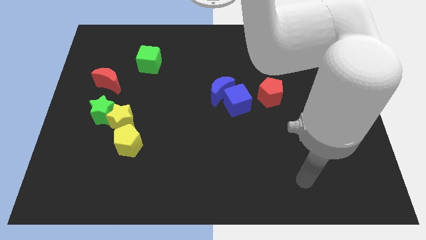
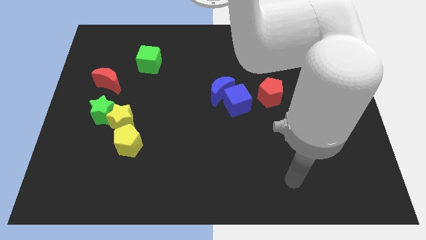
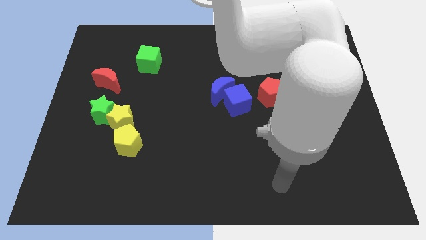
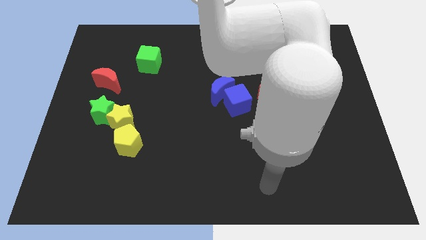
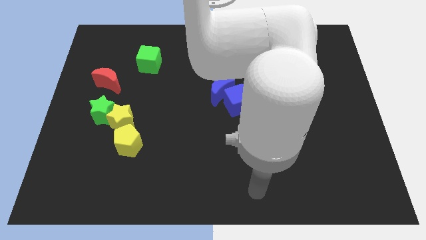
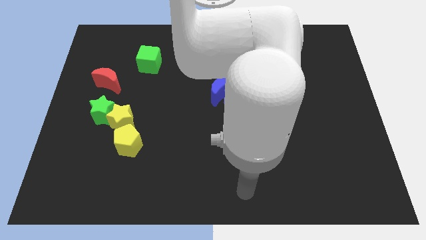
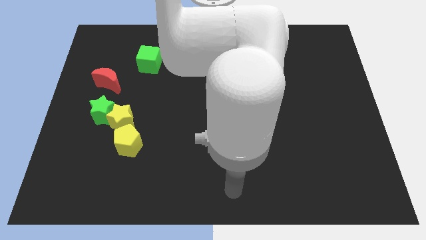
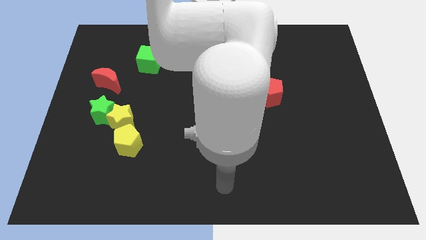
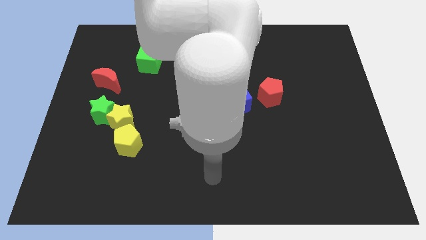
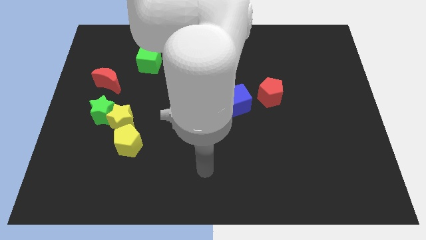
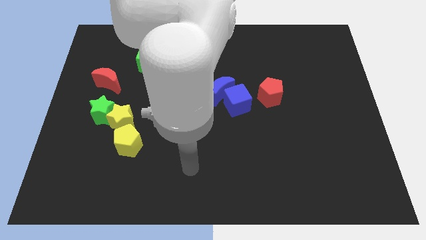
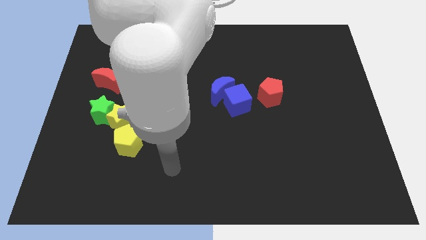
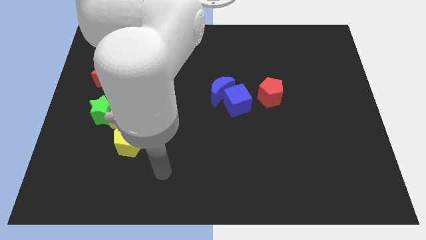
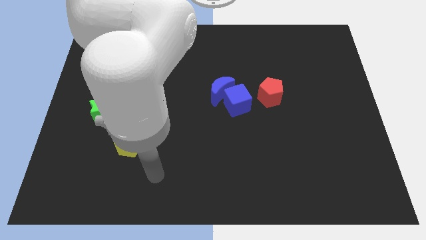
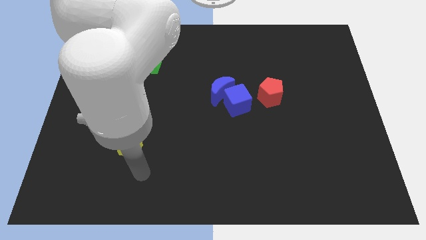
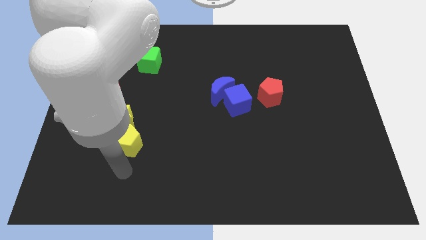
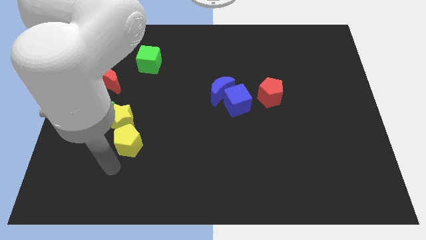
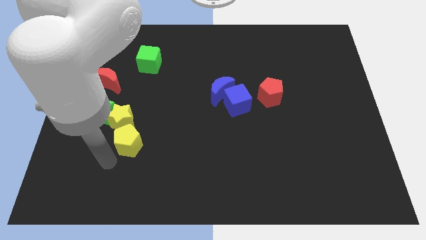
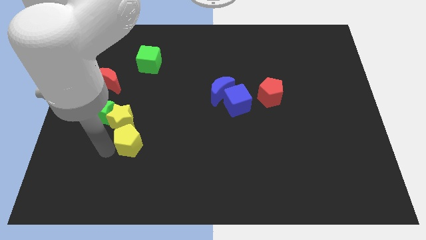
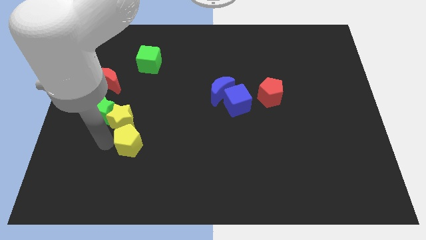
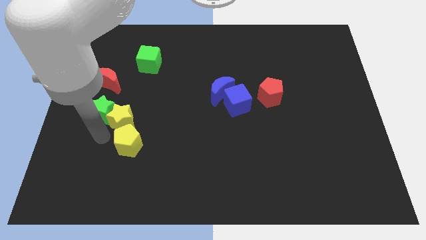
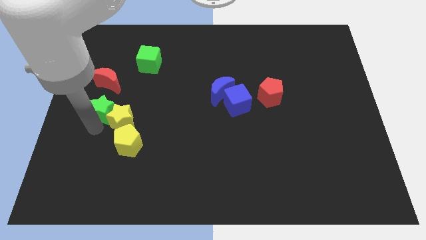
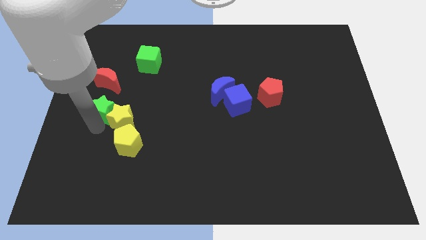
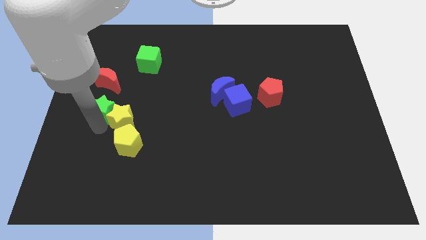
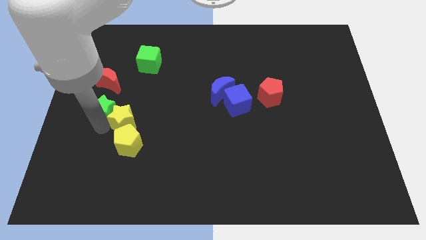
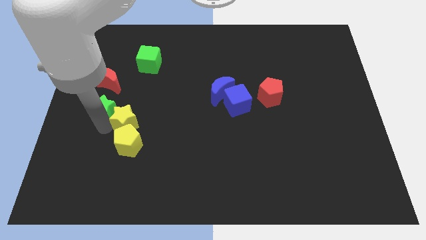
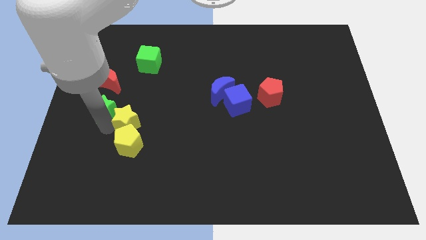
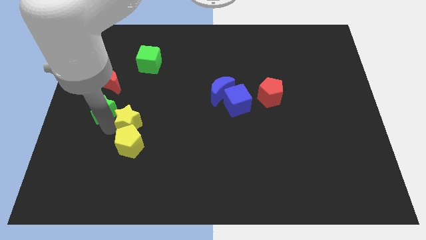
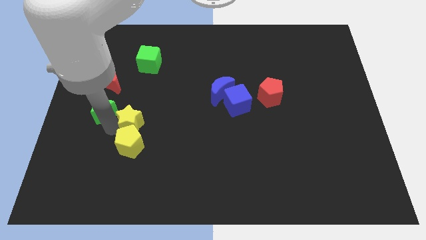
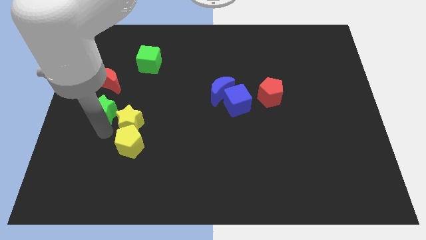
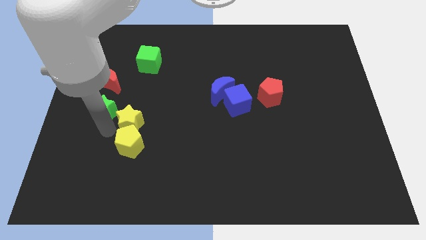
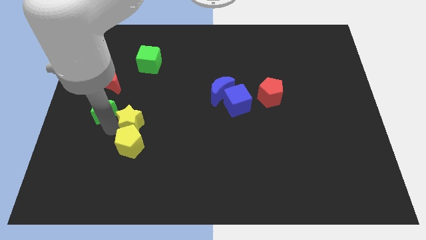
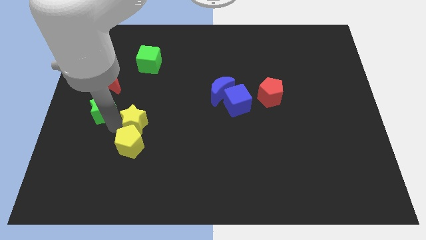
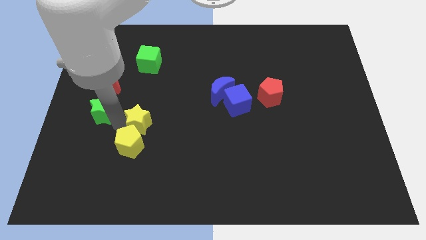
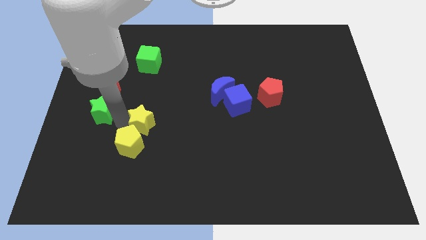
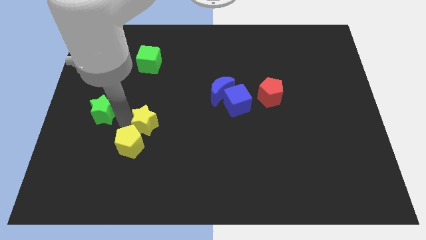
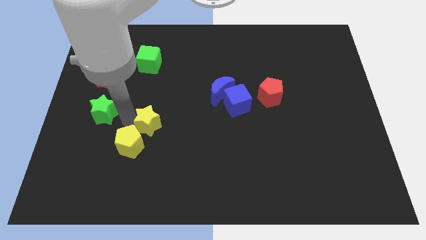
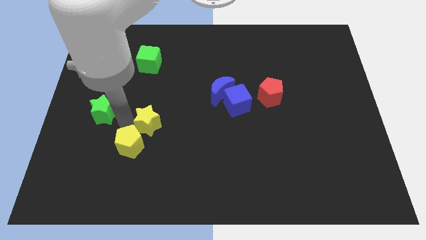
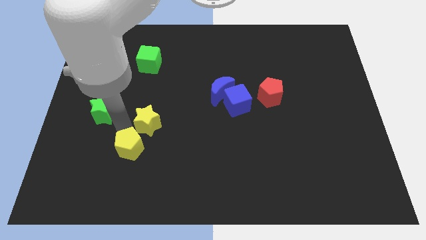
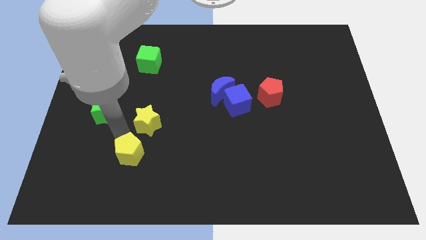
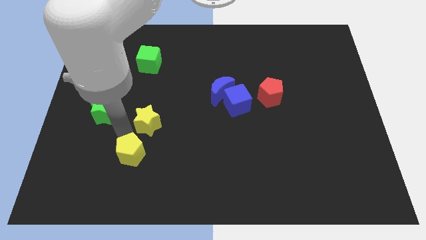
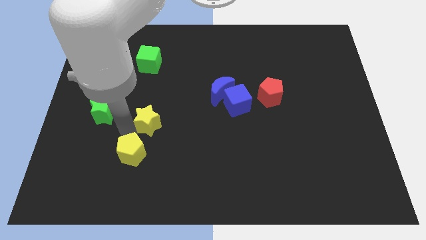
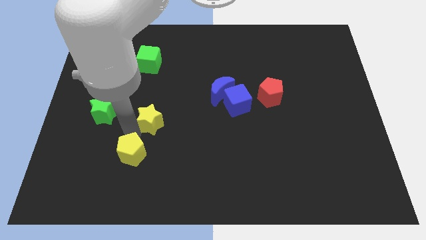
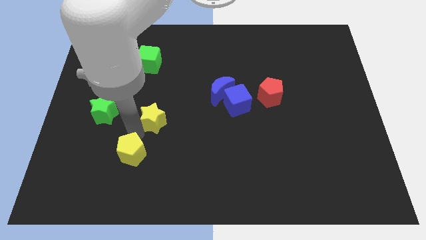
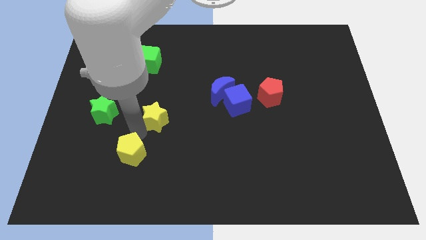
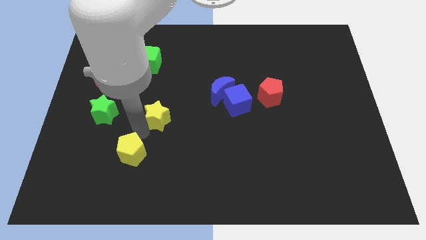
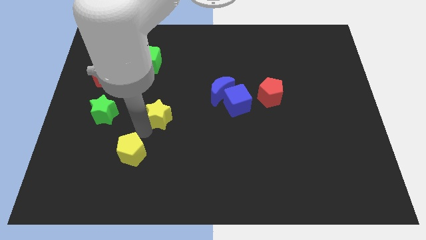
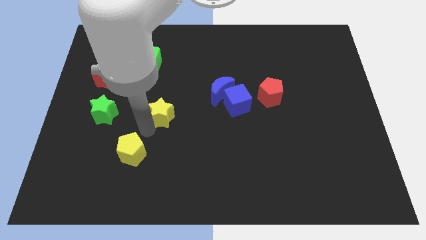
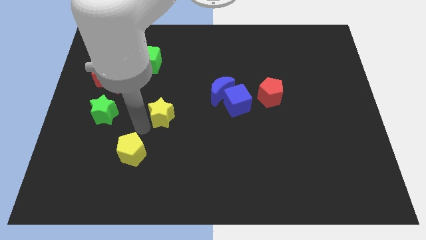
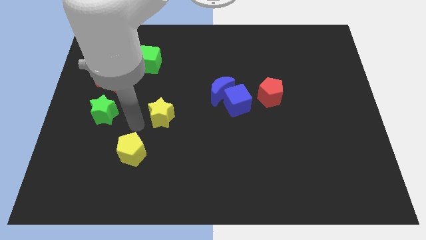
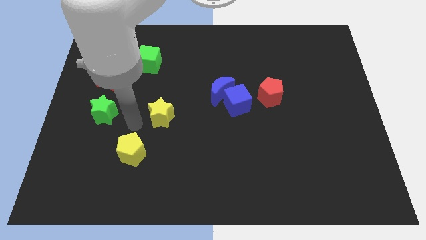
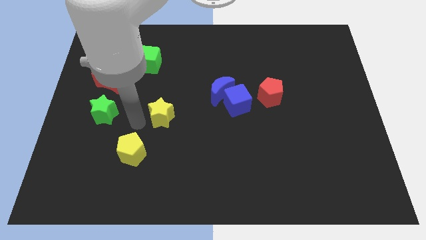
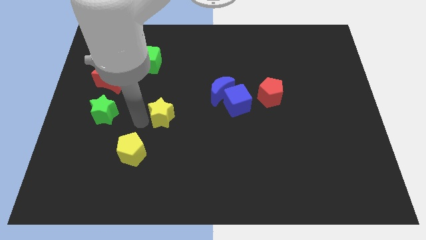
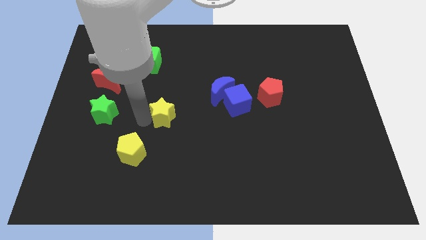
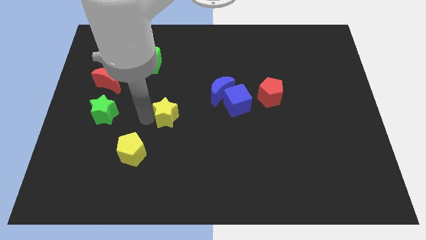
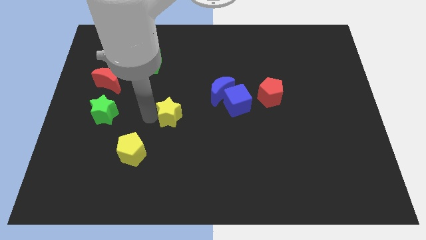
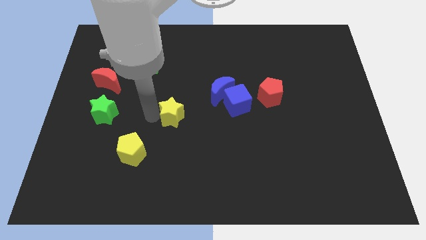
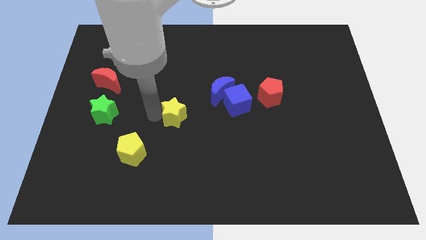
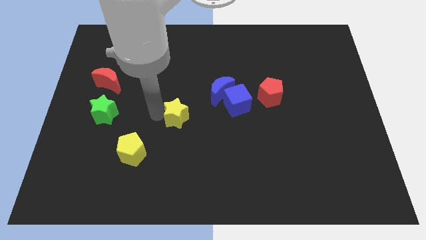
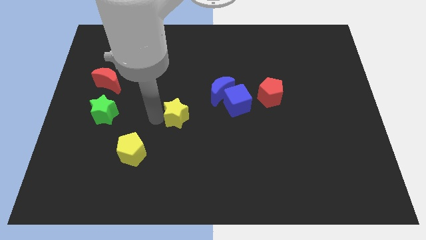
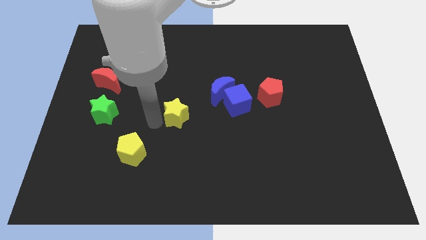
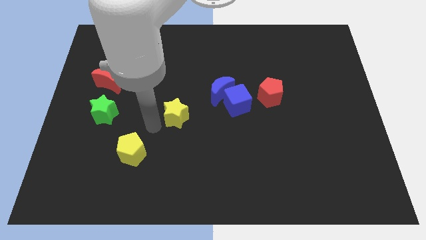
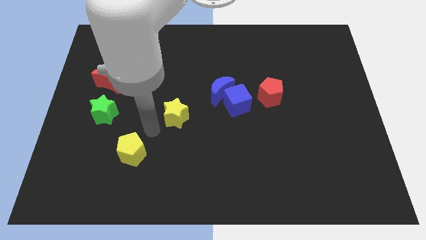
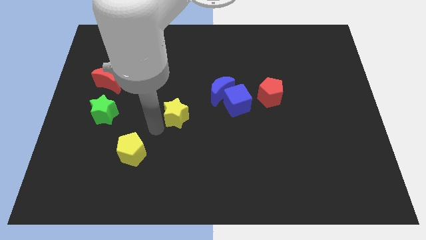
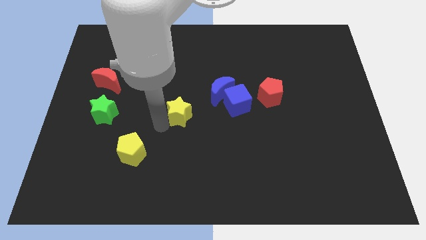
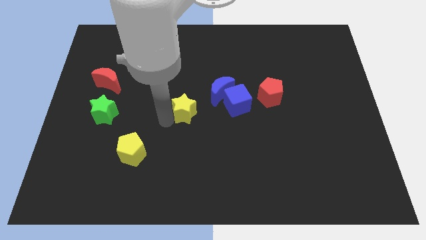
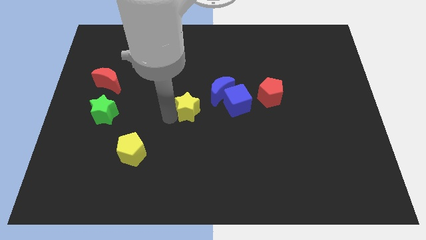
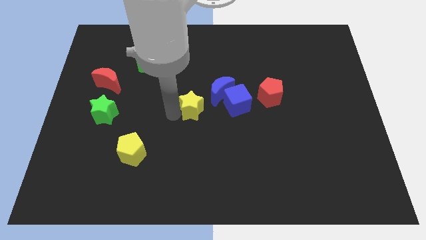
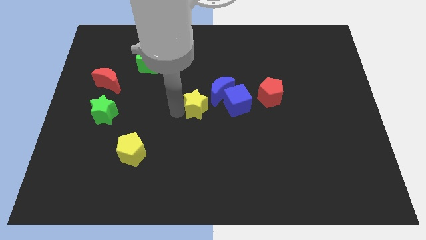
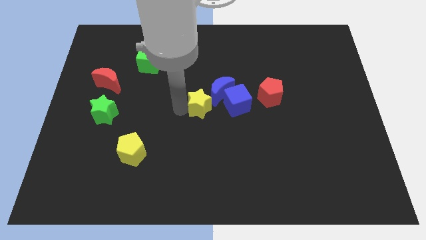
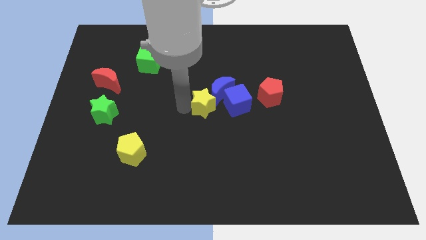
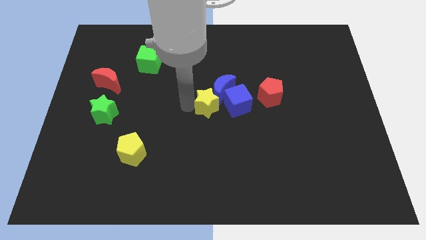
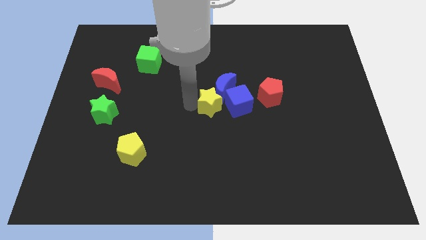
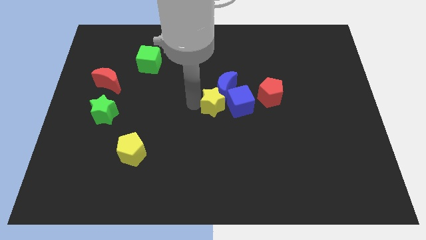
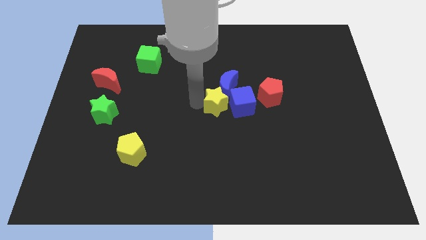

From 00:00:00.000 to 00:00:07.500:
move the yellow star to the blue cube
